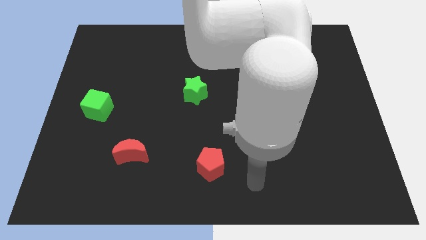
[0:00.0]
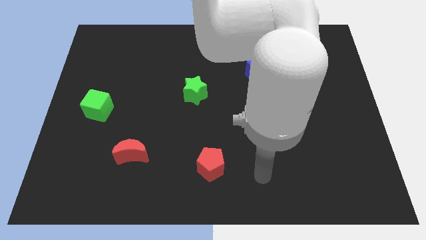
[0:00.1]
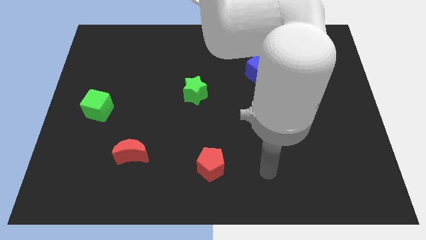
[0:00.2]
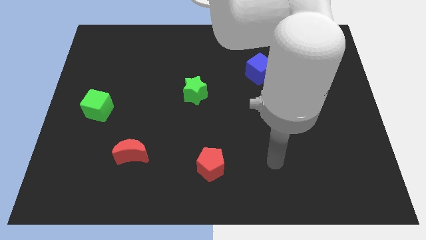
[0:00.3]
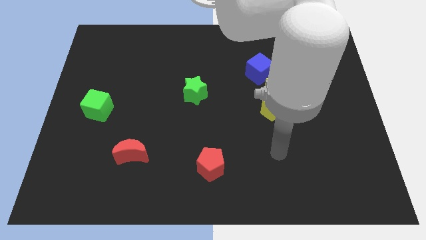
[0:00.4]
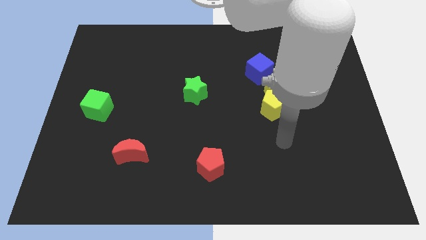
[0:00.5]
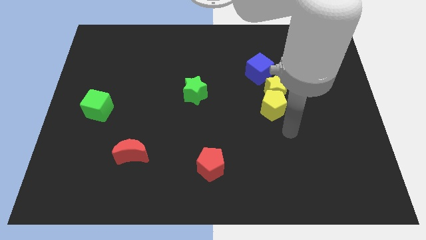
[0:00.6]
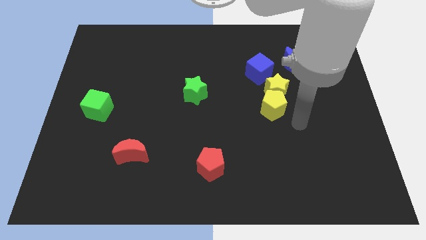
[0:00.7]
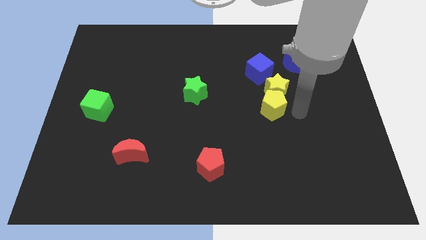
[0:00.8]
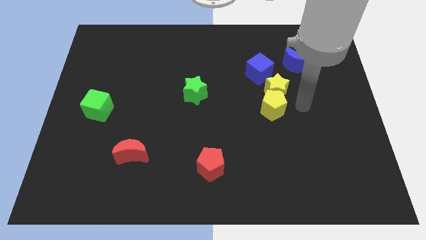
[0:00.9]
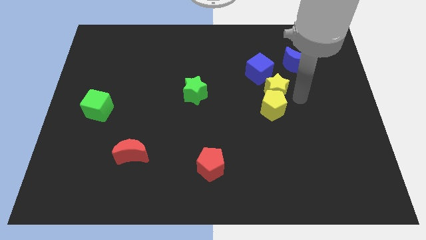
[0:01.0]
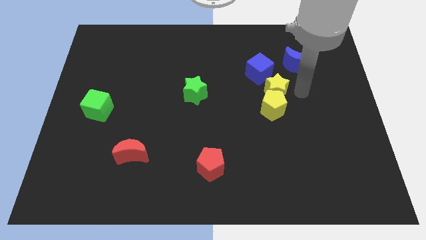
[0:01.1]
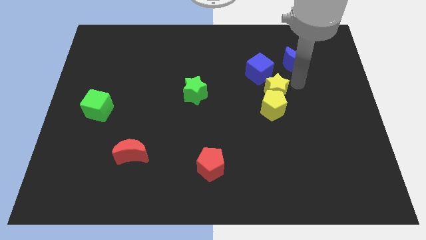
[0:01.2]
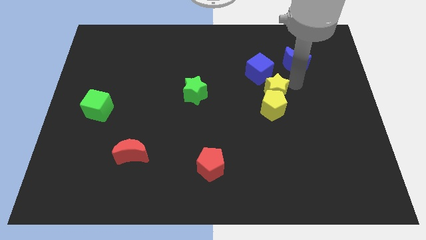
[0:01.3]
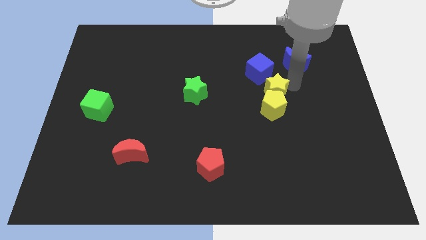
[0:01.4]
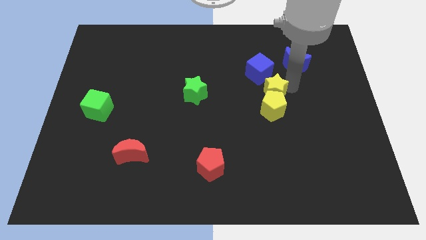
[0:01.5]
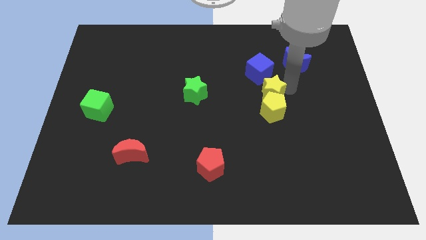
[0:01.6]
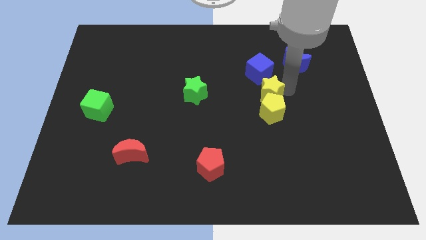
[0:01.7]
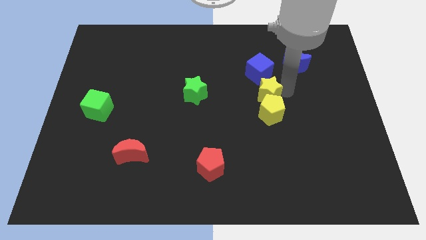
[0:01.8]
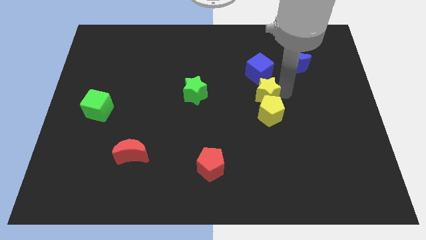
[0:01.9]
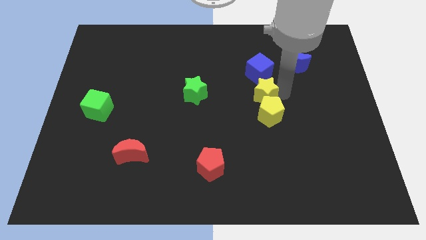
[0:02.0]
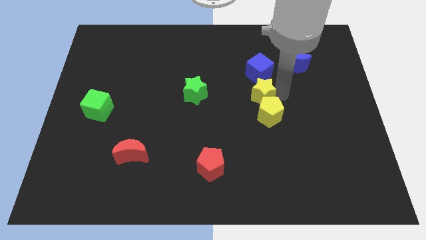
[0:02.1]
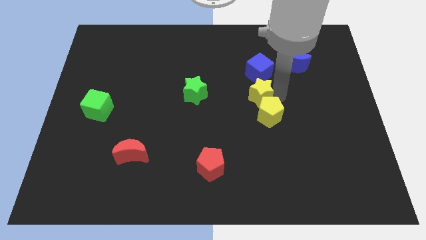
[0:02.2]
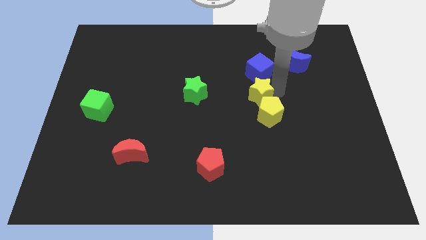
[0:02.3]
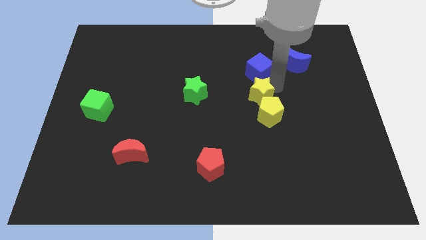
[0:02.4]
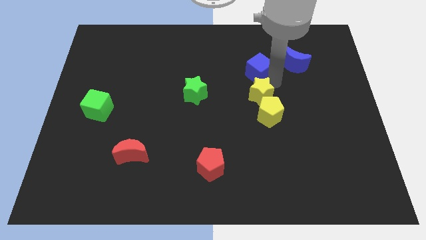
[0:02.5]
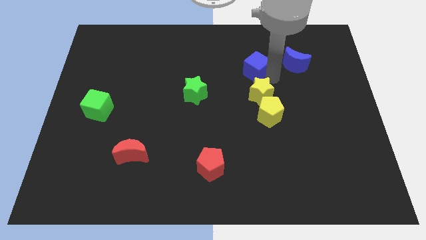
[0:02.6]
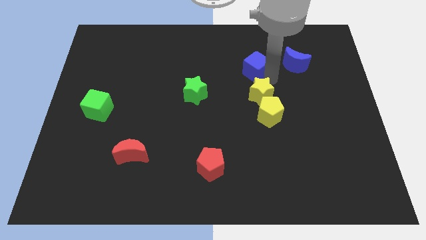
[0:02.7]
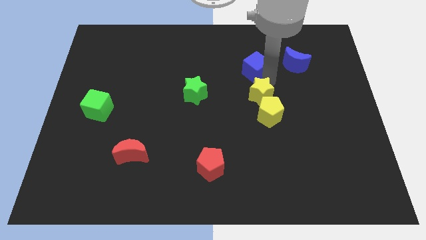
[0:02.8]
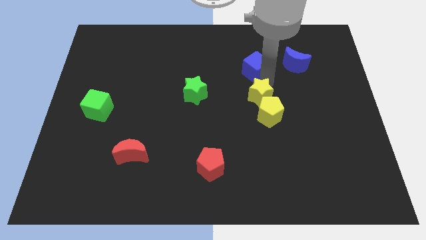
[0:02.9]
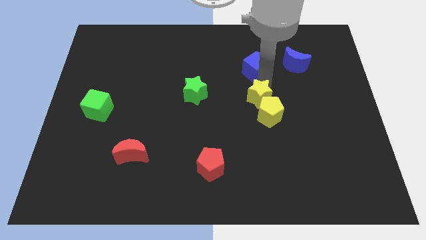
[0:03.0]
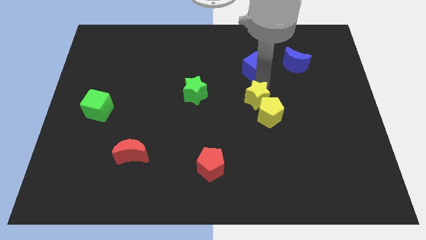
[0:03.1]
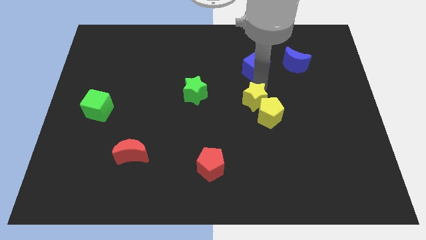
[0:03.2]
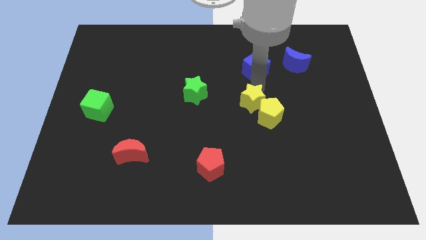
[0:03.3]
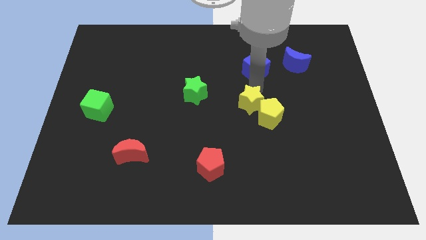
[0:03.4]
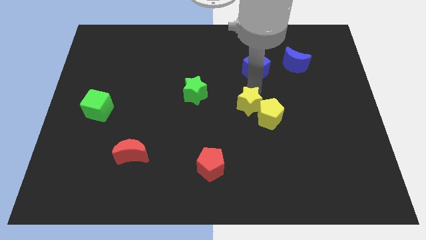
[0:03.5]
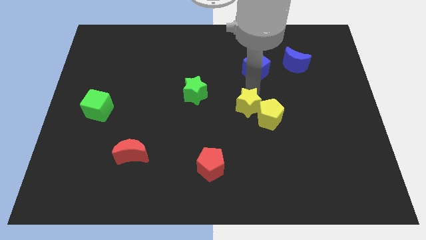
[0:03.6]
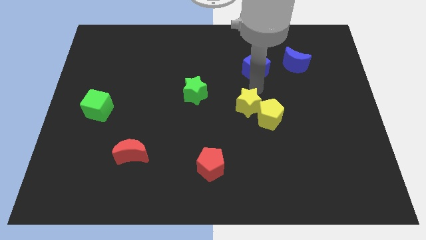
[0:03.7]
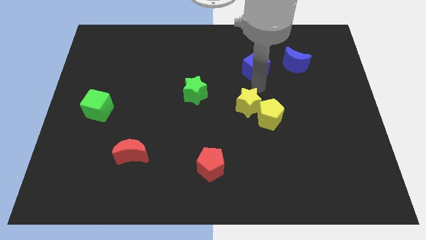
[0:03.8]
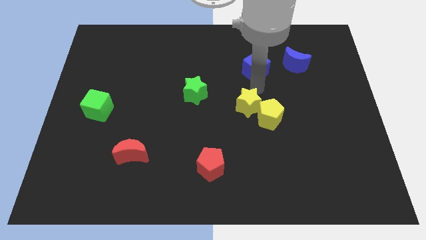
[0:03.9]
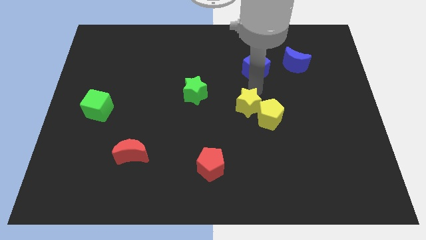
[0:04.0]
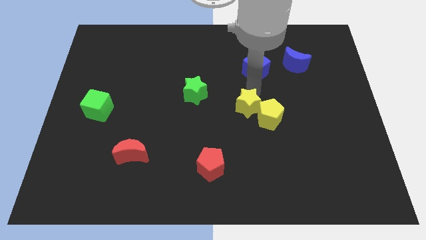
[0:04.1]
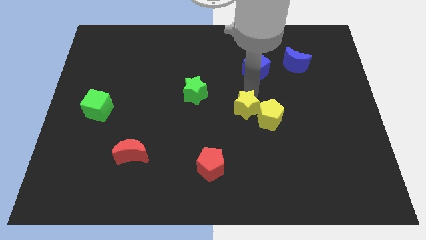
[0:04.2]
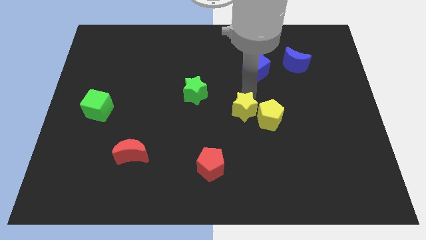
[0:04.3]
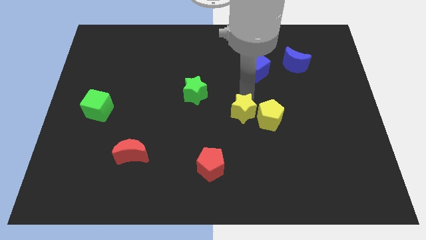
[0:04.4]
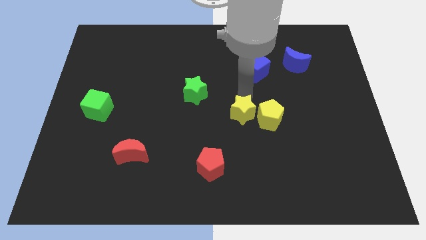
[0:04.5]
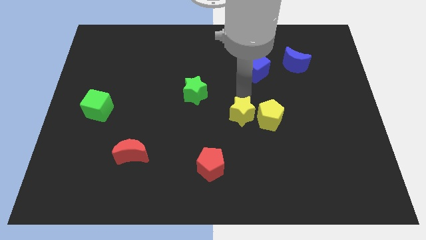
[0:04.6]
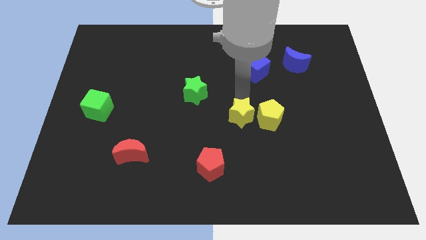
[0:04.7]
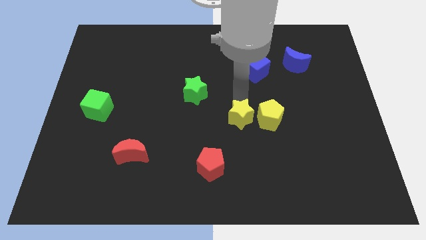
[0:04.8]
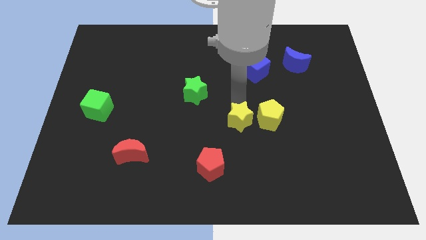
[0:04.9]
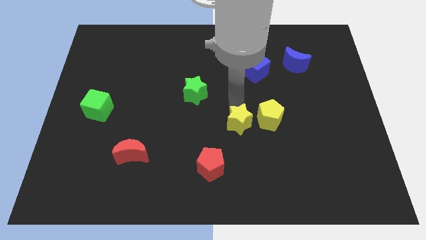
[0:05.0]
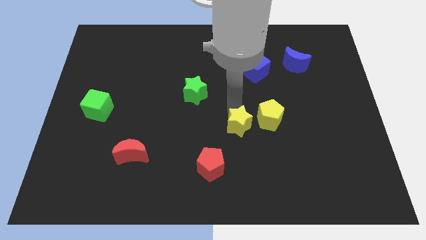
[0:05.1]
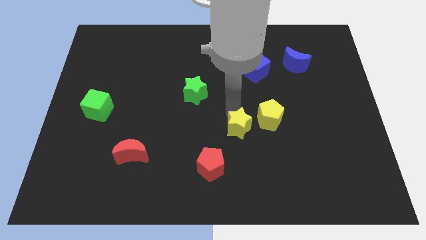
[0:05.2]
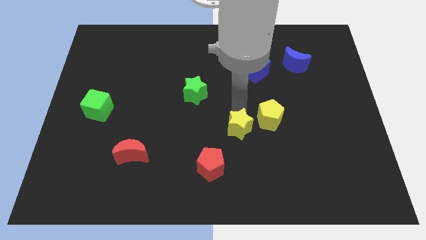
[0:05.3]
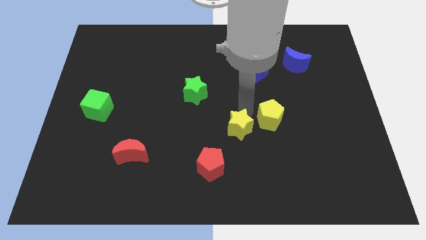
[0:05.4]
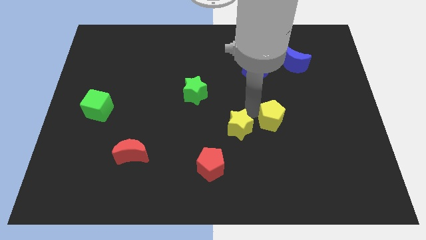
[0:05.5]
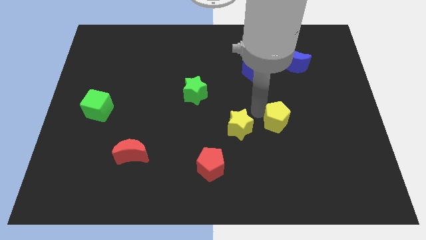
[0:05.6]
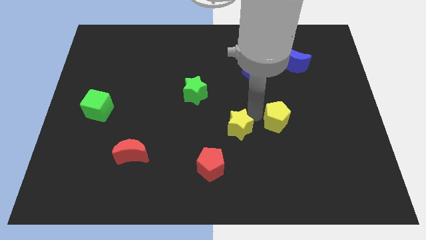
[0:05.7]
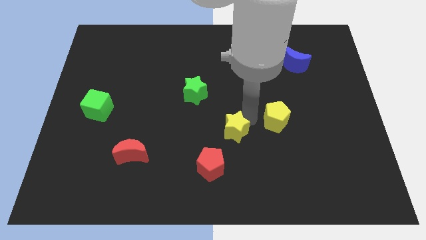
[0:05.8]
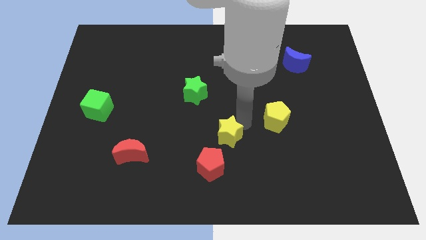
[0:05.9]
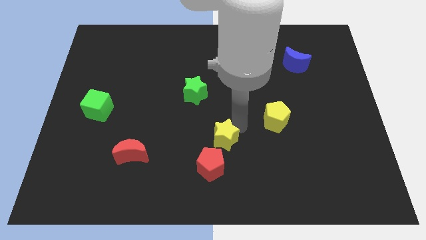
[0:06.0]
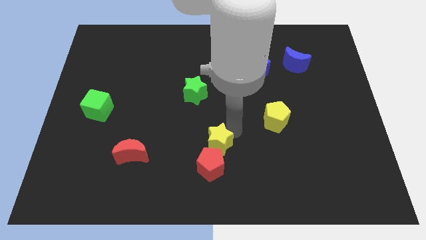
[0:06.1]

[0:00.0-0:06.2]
move the yellow star diagonally downwards and left

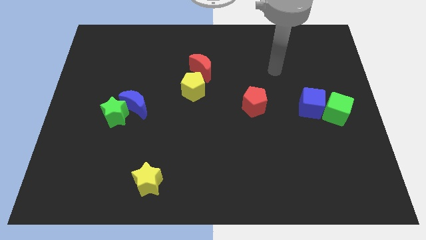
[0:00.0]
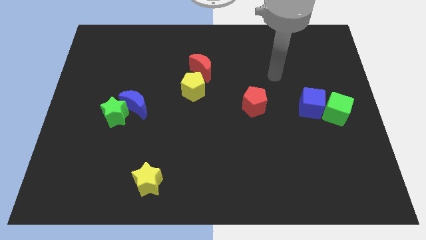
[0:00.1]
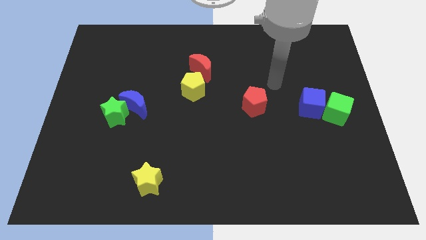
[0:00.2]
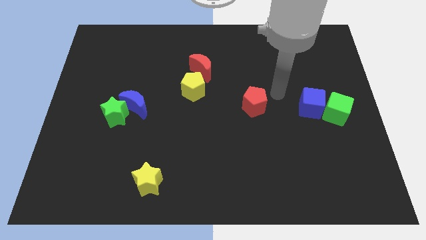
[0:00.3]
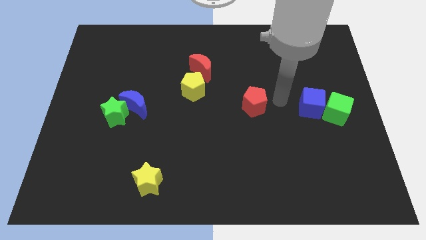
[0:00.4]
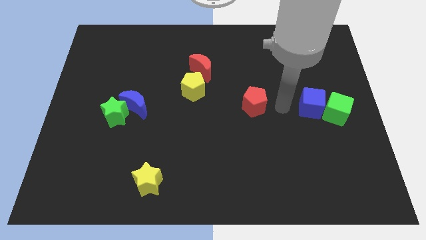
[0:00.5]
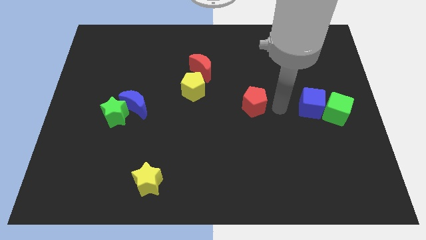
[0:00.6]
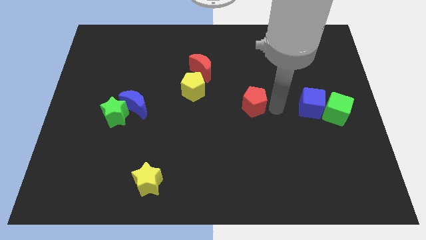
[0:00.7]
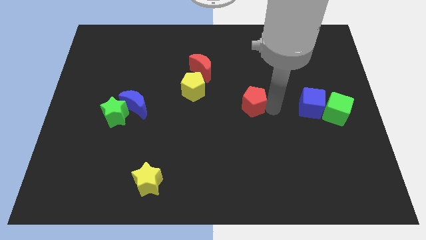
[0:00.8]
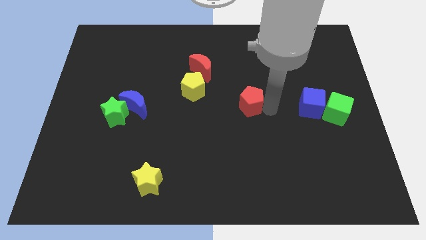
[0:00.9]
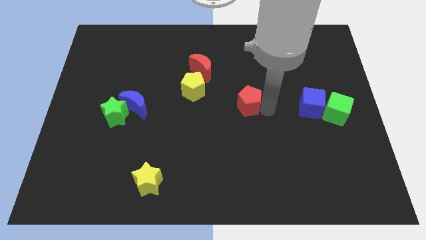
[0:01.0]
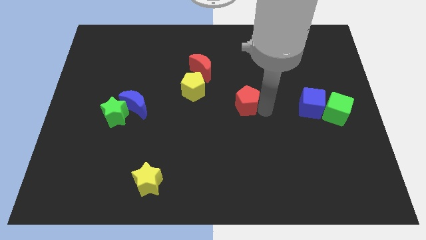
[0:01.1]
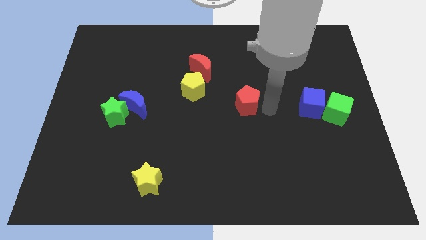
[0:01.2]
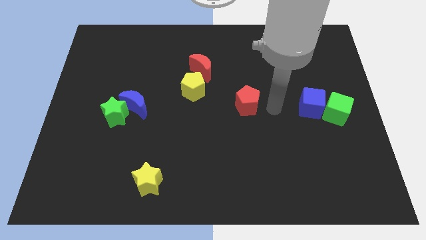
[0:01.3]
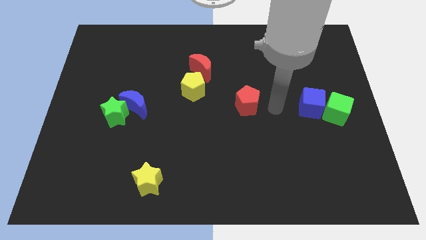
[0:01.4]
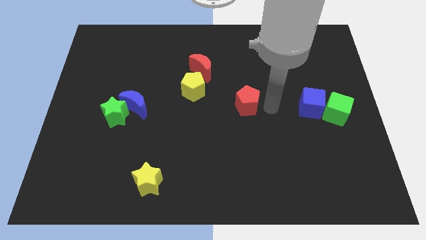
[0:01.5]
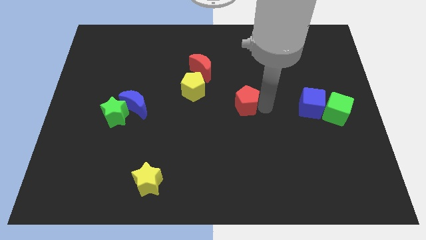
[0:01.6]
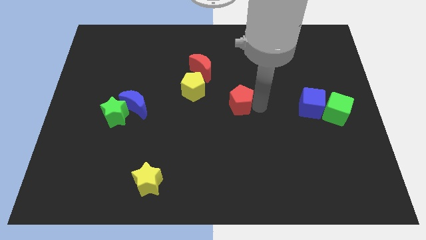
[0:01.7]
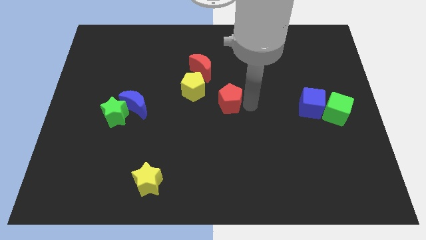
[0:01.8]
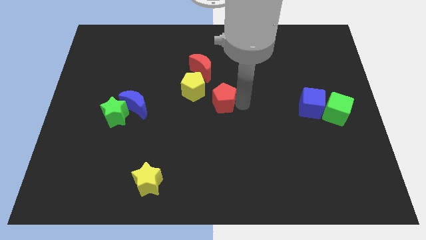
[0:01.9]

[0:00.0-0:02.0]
move the red pentagon somewhat left
